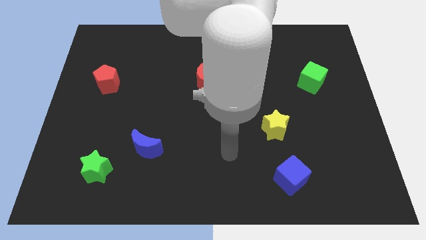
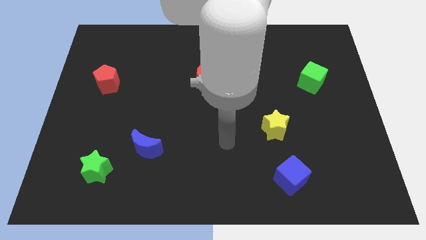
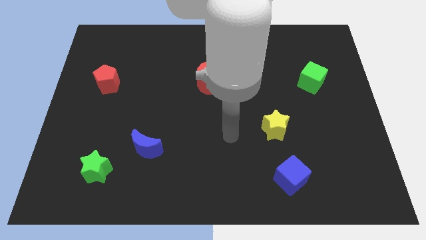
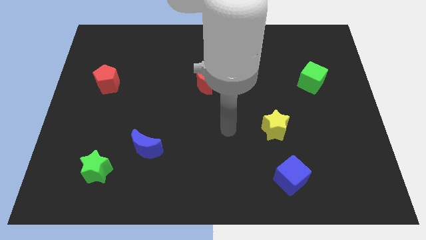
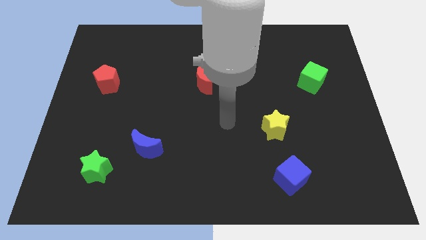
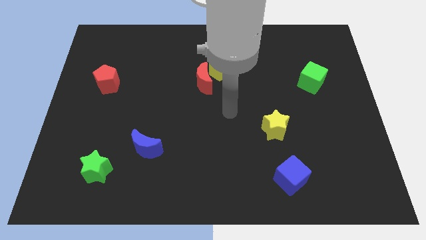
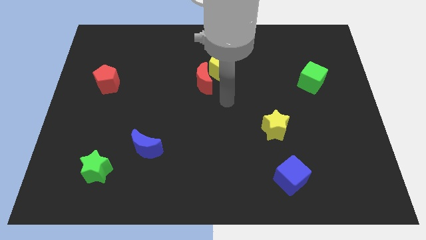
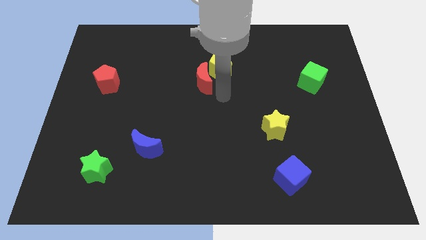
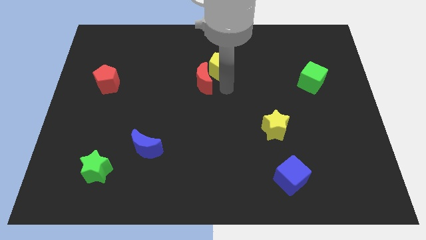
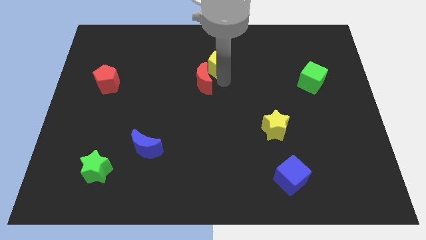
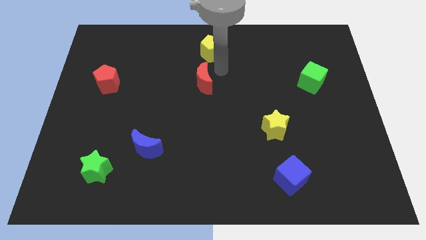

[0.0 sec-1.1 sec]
separate the red moon from the yellow pentagon

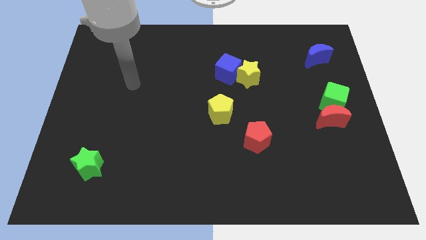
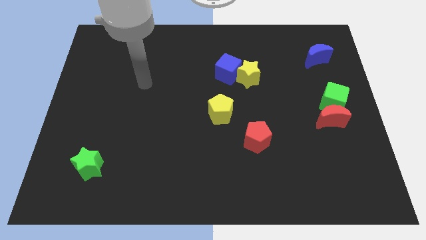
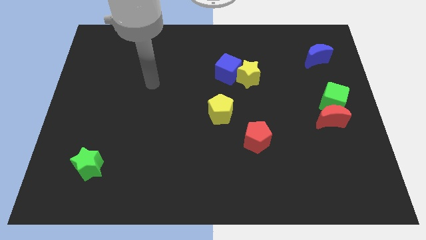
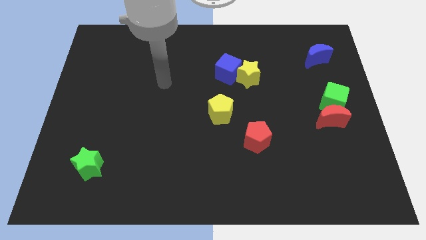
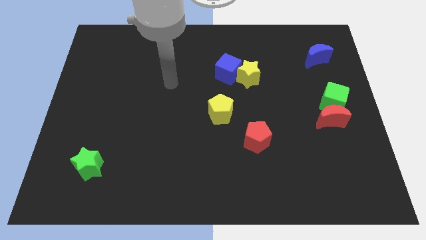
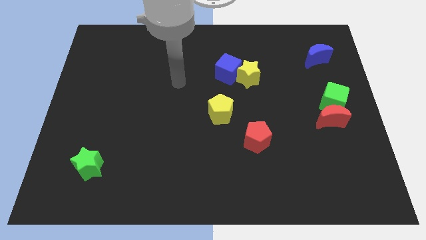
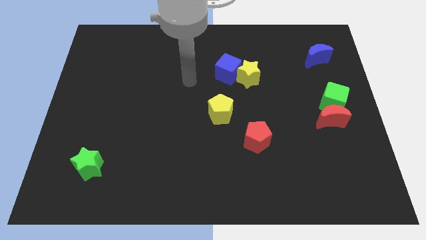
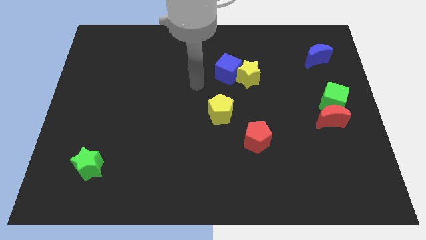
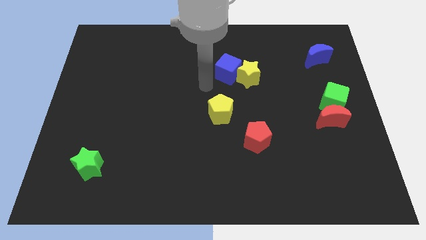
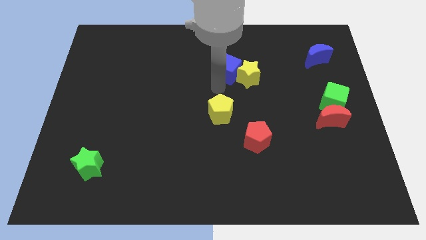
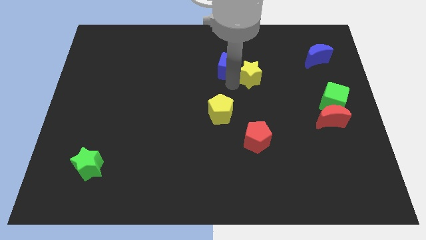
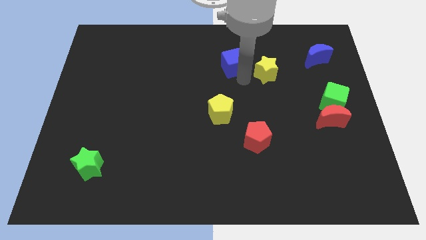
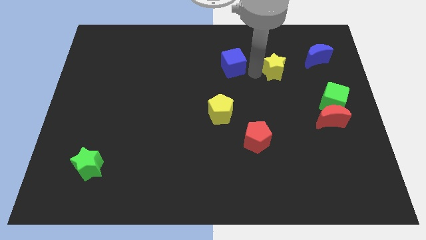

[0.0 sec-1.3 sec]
separate the blue cube from the yellow star

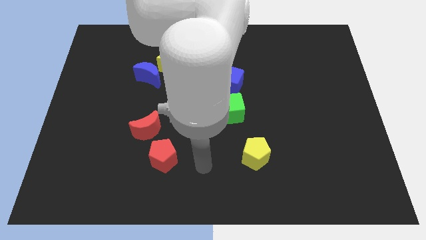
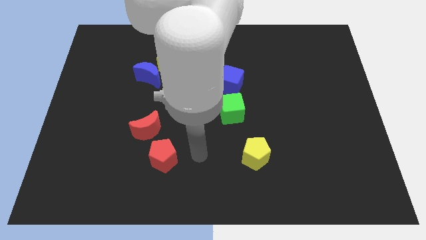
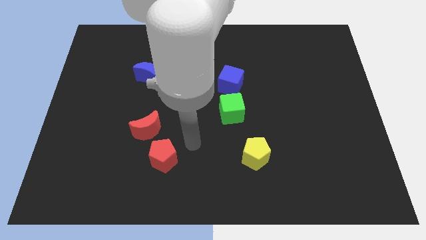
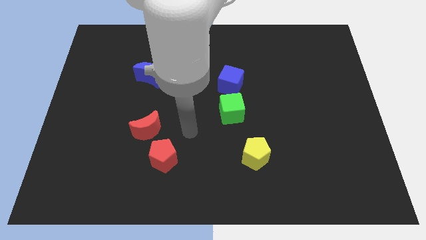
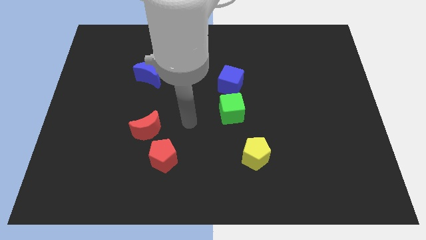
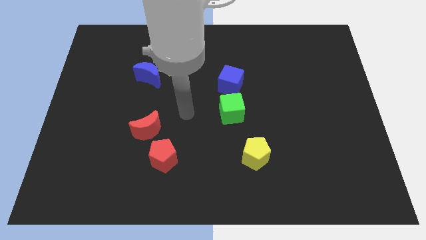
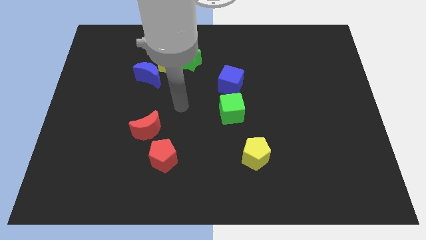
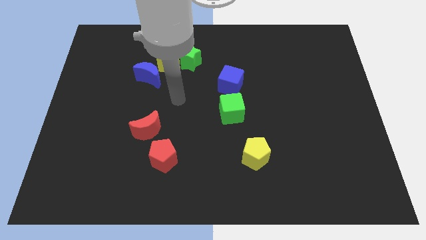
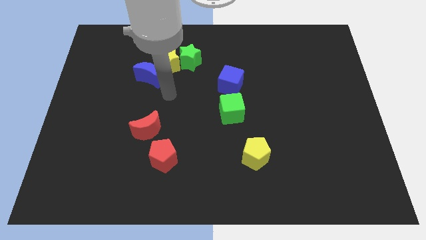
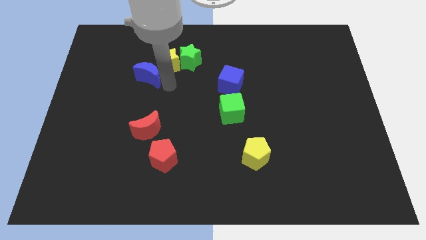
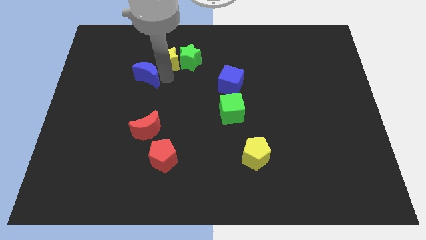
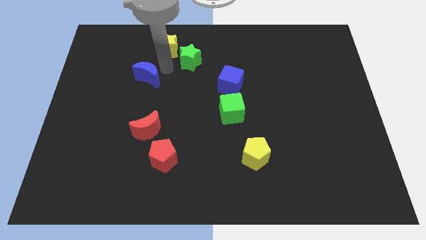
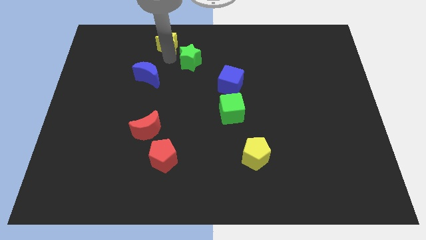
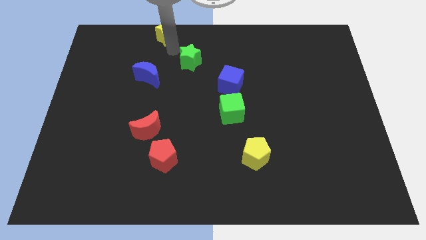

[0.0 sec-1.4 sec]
pull the green star apart from the yellow star

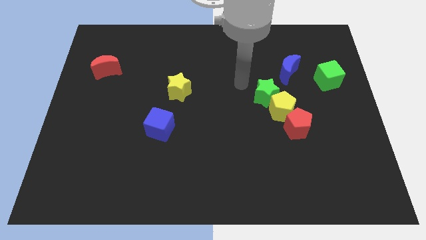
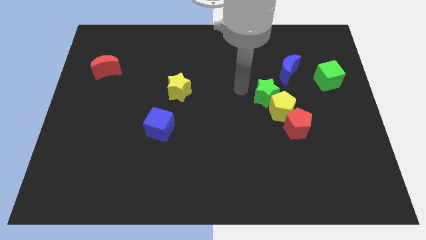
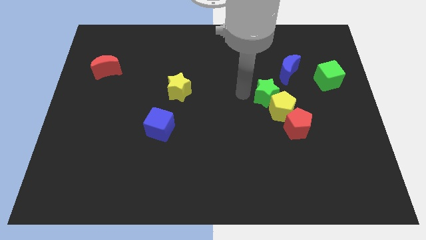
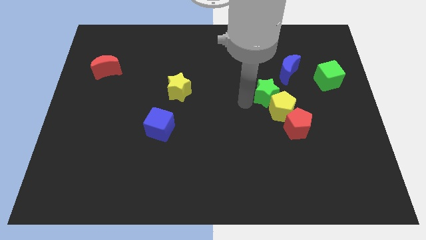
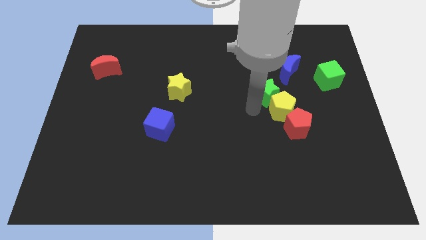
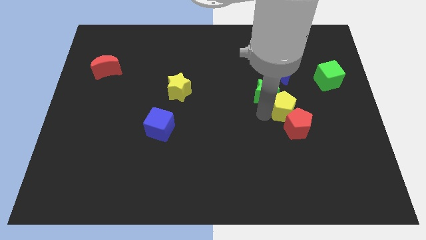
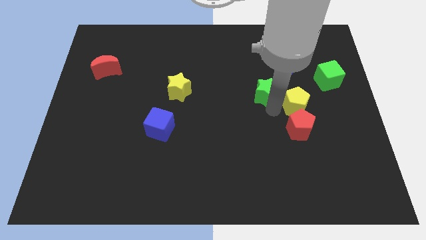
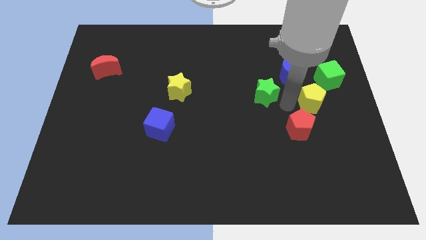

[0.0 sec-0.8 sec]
separate the green star from the yellow pentagon

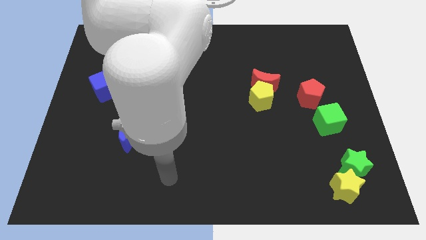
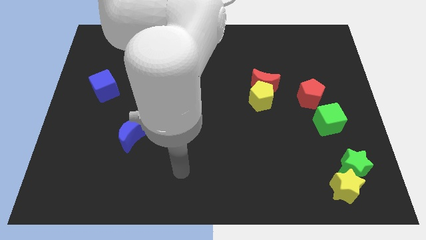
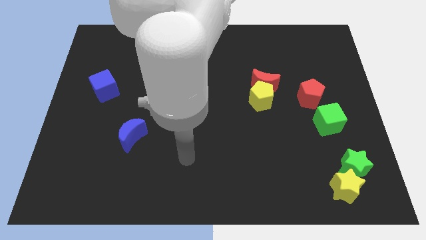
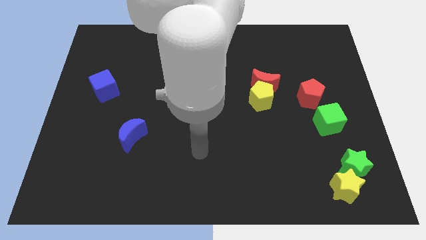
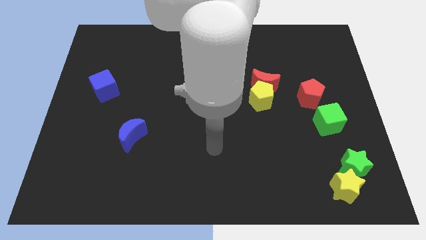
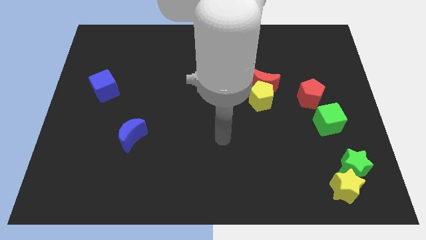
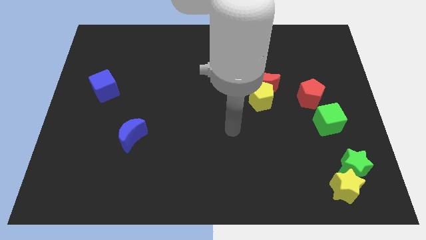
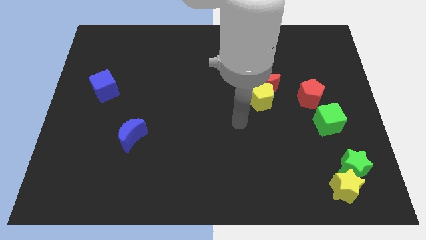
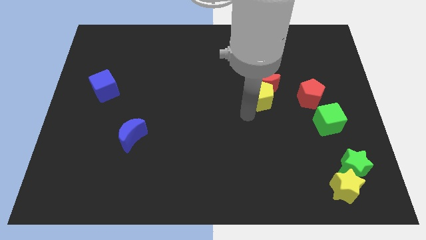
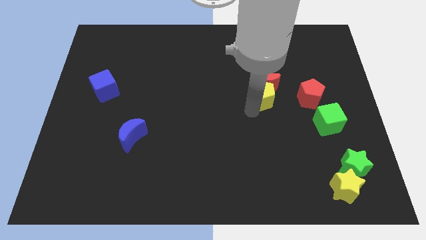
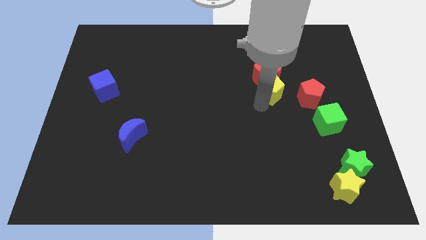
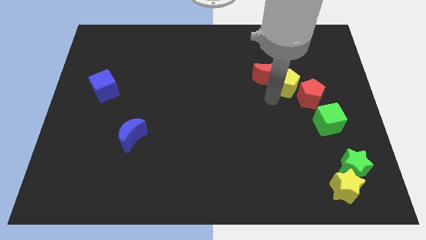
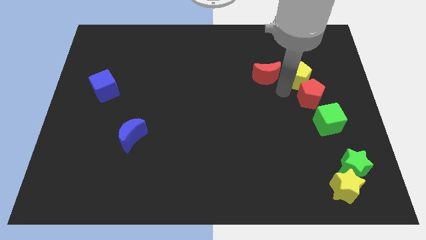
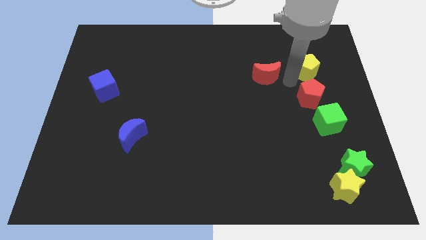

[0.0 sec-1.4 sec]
pull the red moon apart from the yellow pentagon

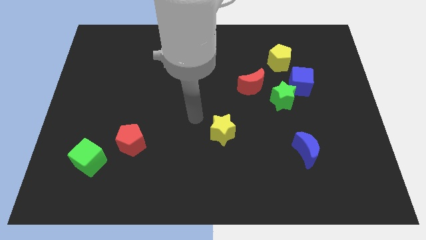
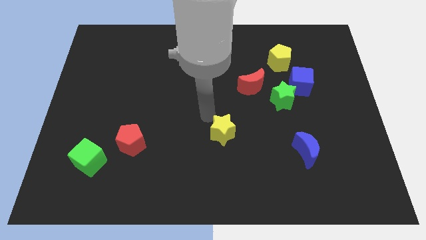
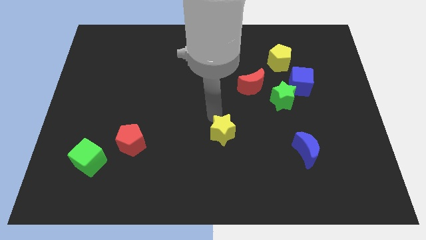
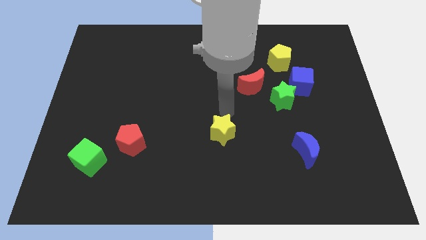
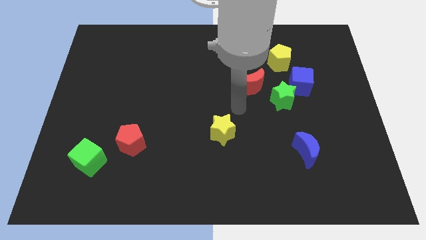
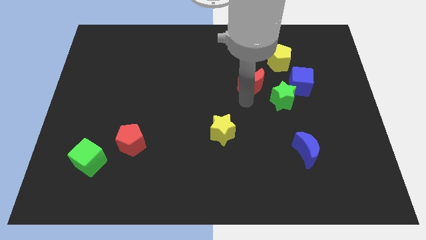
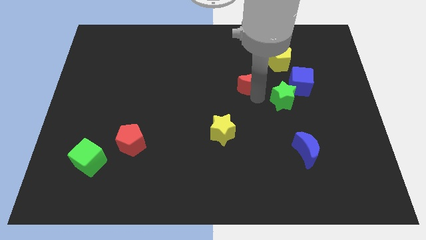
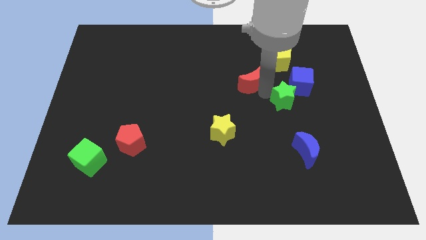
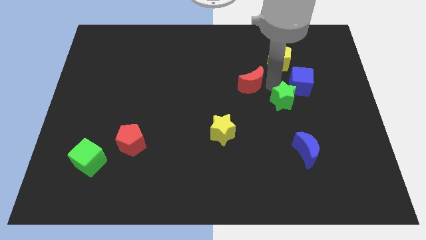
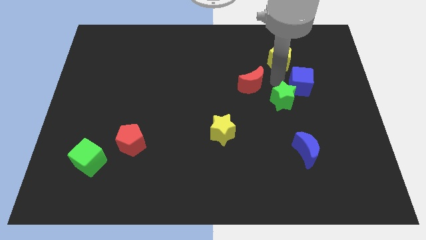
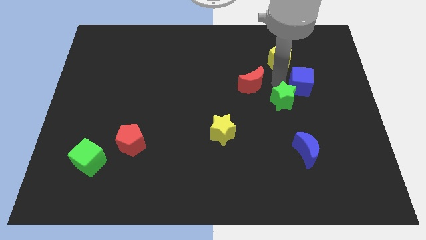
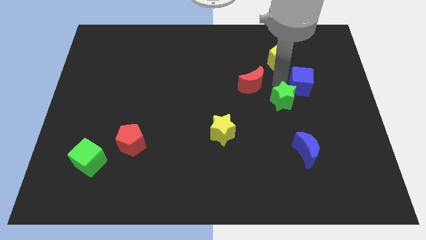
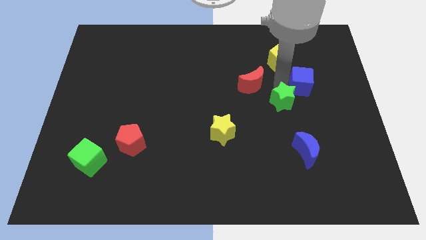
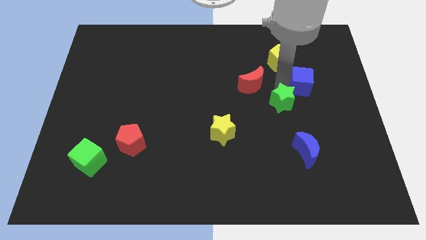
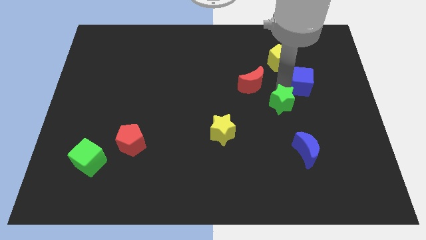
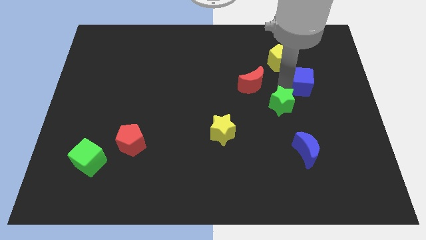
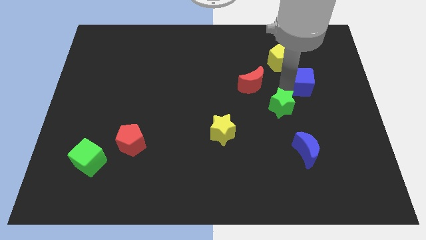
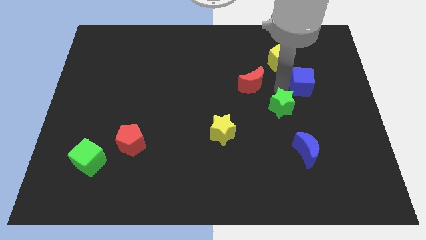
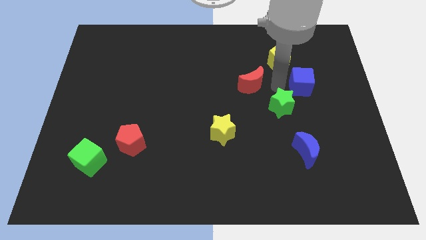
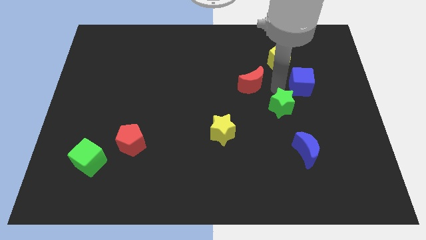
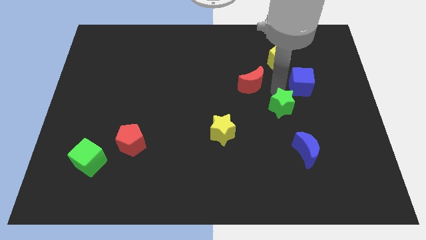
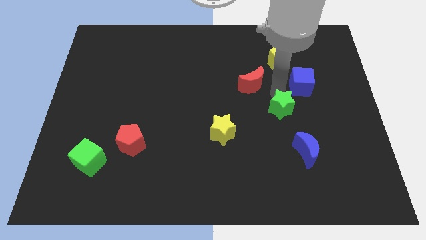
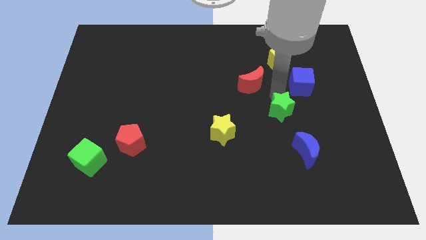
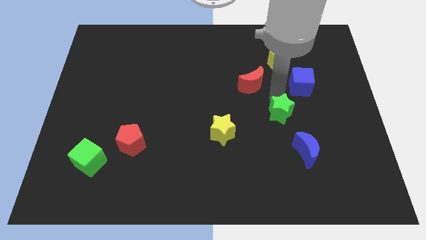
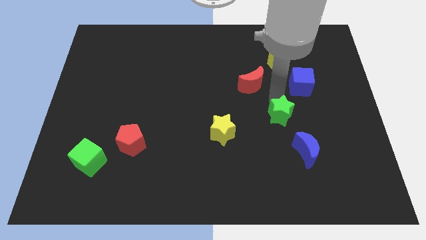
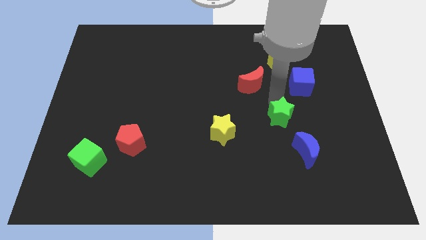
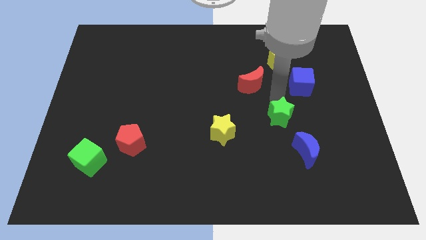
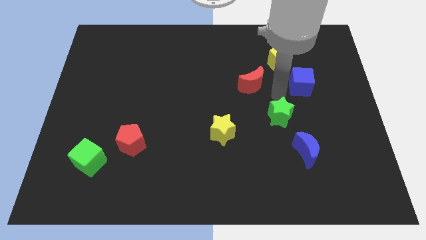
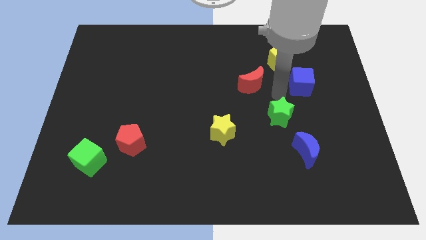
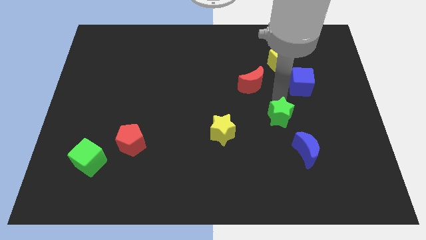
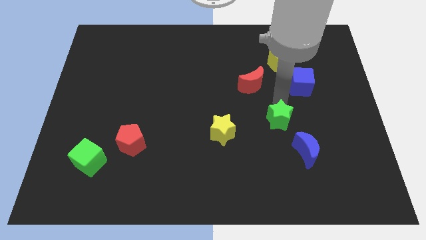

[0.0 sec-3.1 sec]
separate the green star from the blue cube and red moon
